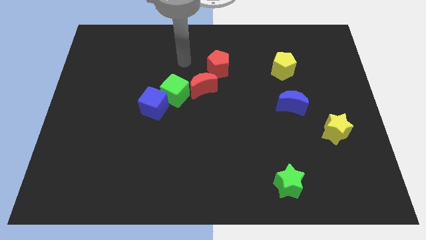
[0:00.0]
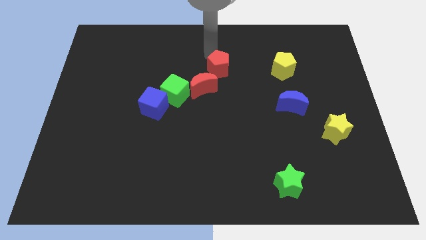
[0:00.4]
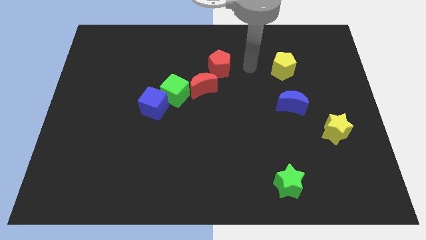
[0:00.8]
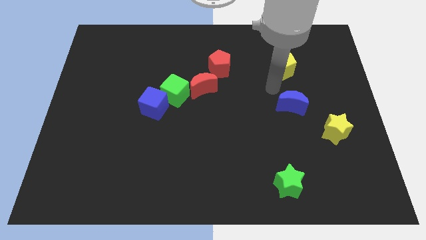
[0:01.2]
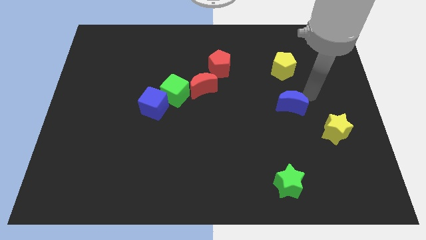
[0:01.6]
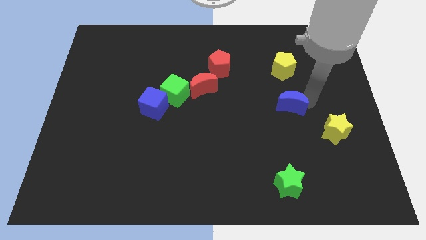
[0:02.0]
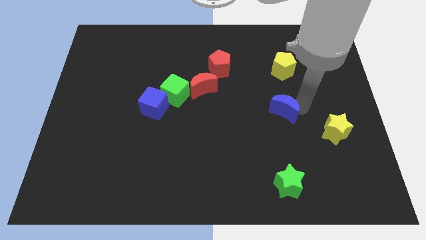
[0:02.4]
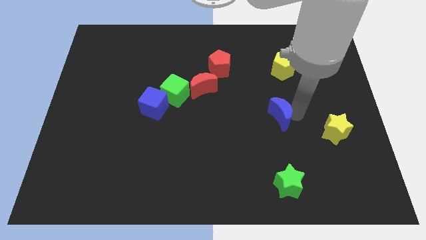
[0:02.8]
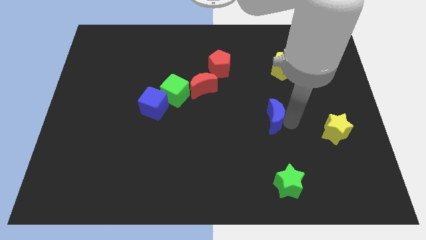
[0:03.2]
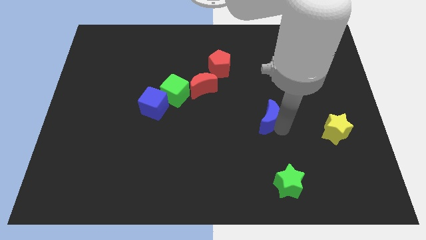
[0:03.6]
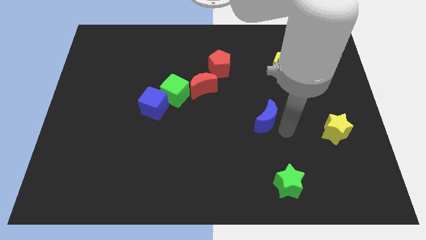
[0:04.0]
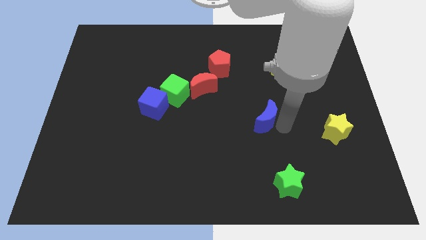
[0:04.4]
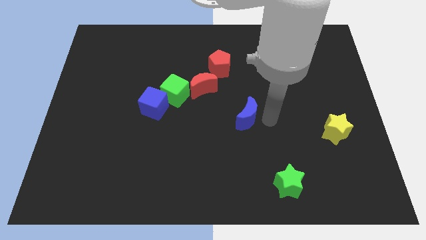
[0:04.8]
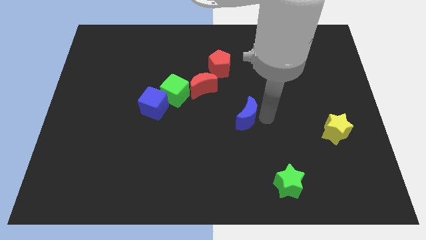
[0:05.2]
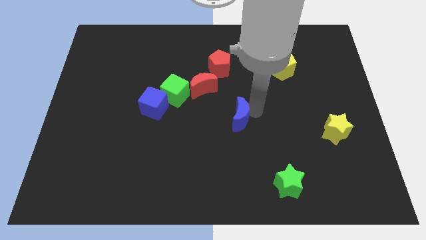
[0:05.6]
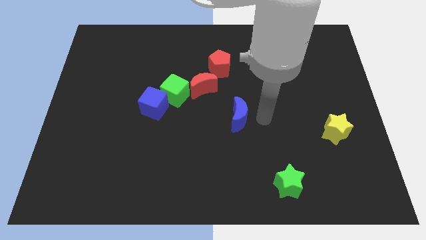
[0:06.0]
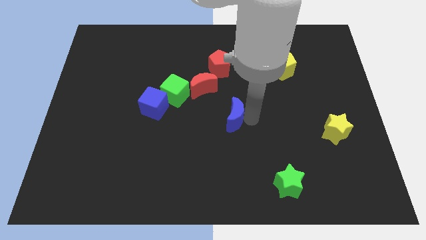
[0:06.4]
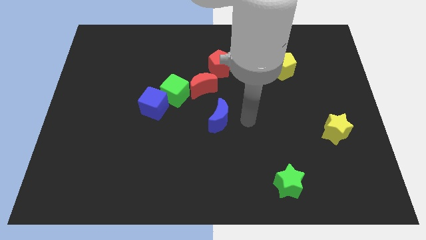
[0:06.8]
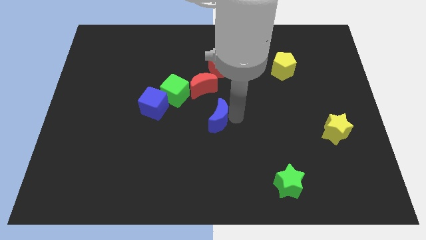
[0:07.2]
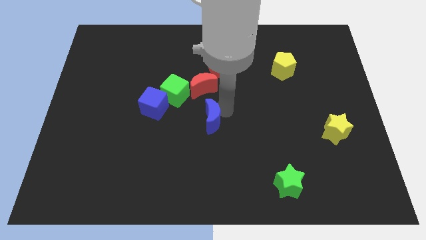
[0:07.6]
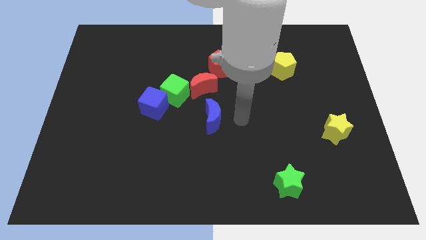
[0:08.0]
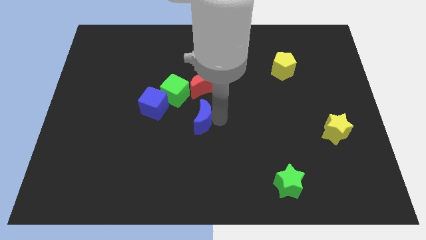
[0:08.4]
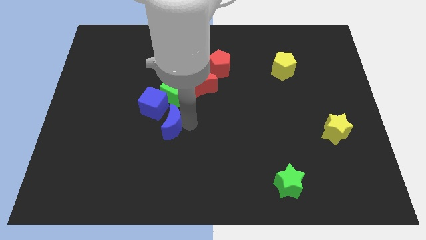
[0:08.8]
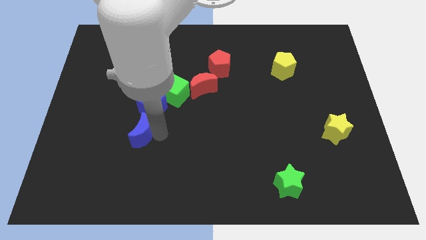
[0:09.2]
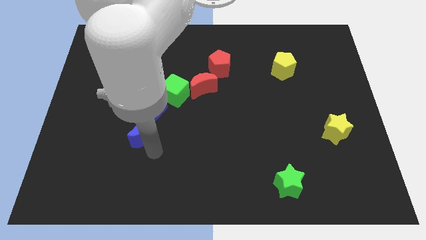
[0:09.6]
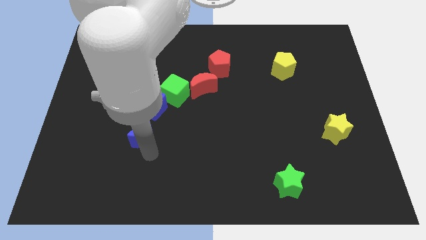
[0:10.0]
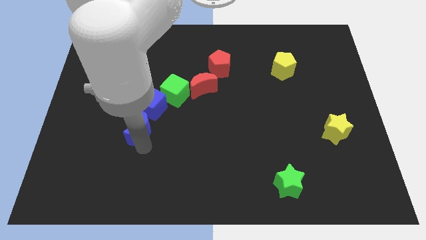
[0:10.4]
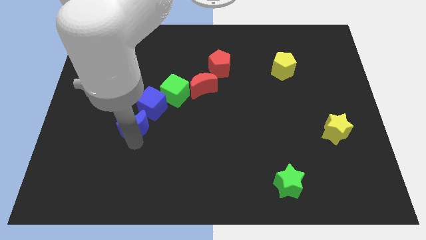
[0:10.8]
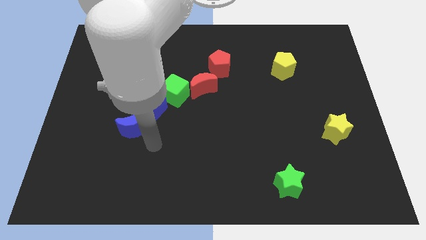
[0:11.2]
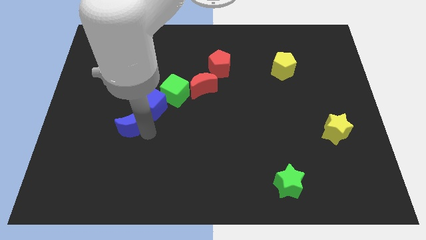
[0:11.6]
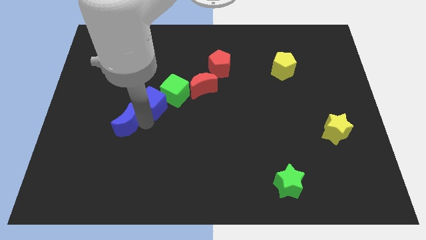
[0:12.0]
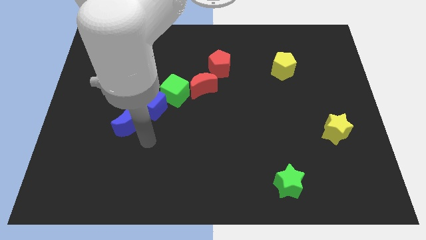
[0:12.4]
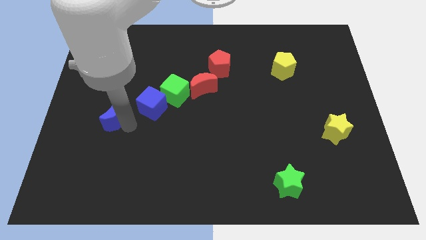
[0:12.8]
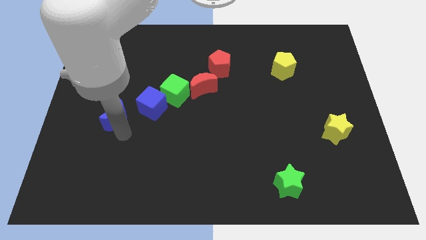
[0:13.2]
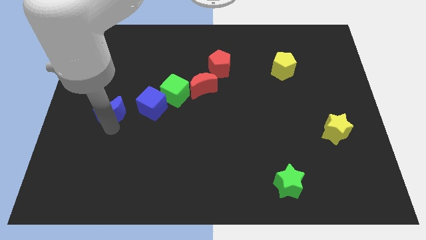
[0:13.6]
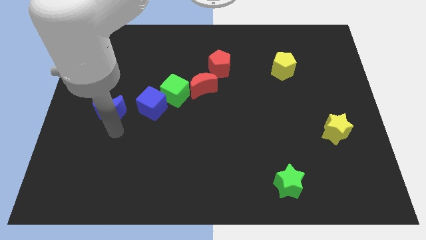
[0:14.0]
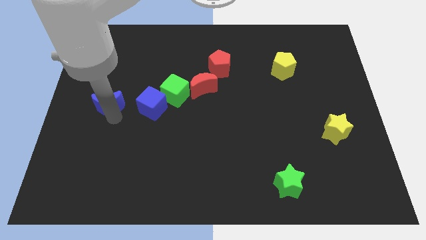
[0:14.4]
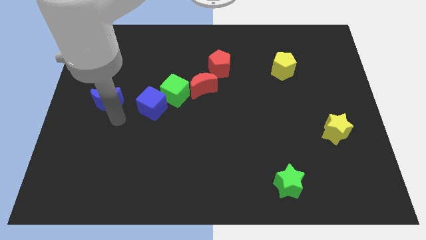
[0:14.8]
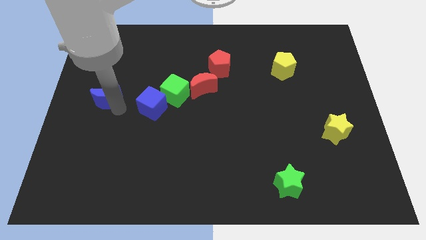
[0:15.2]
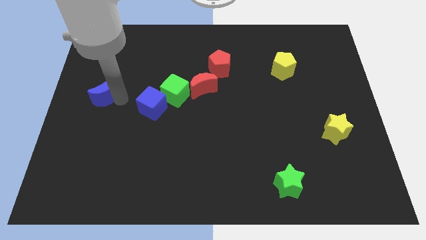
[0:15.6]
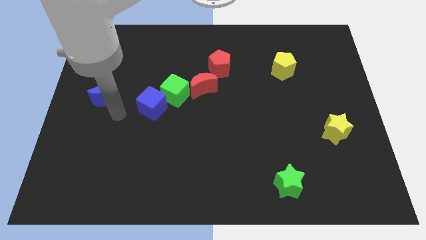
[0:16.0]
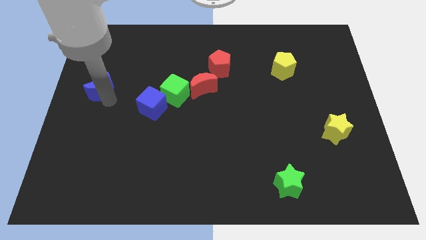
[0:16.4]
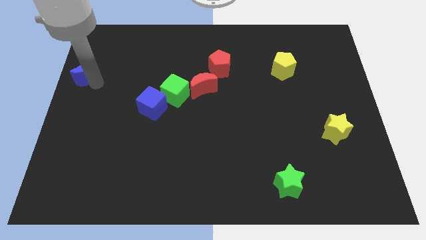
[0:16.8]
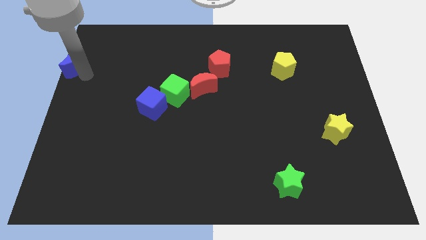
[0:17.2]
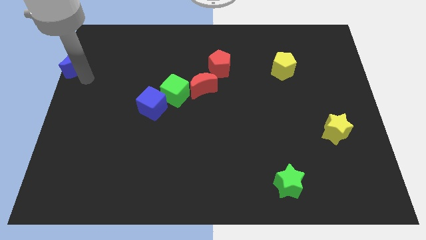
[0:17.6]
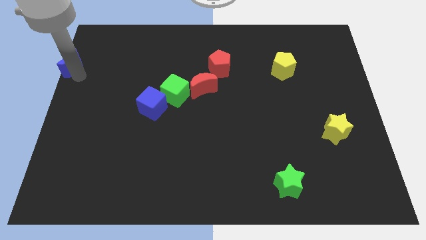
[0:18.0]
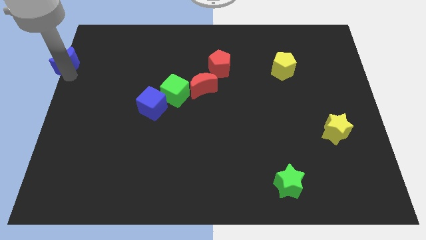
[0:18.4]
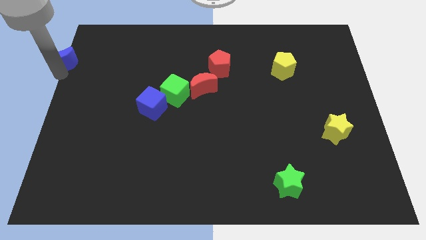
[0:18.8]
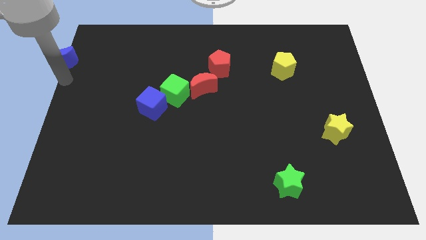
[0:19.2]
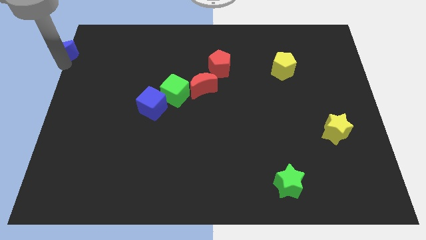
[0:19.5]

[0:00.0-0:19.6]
put the blue moon to the top left corner

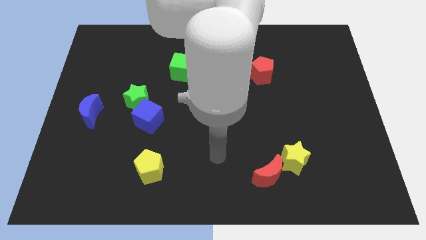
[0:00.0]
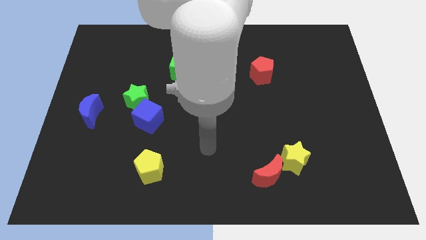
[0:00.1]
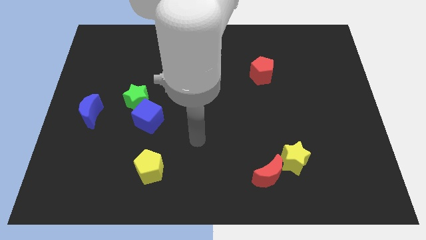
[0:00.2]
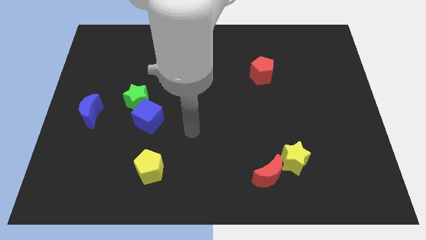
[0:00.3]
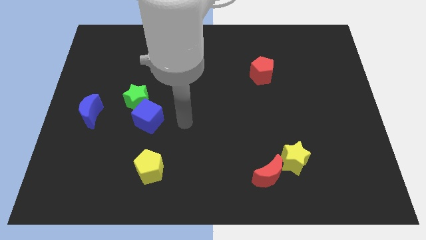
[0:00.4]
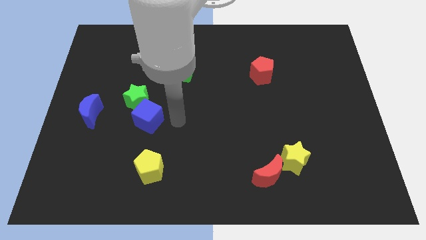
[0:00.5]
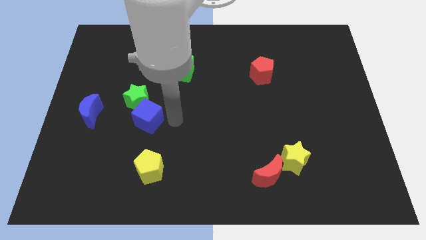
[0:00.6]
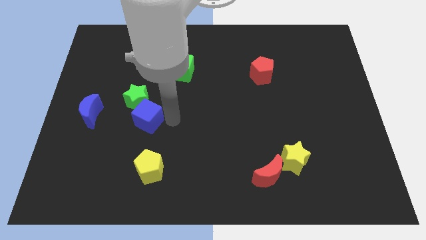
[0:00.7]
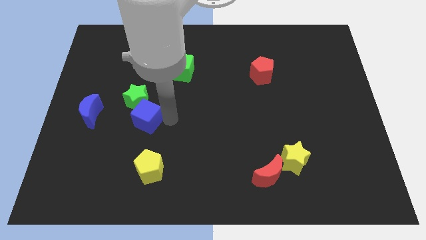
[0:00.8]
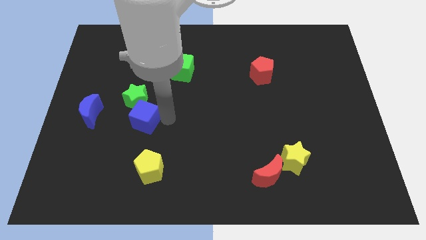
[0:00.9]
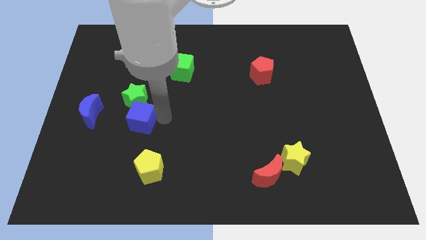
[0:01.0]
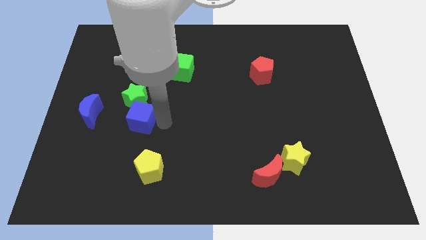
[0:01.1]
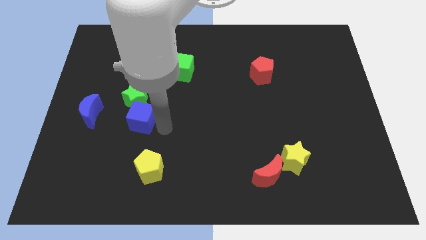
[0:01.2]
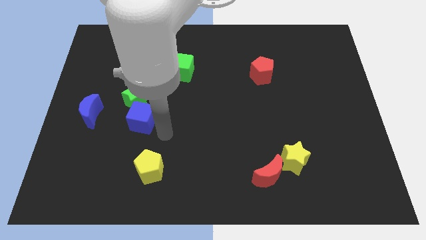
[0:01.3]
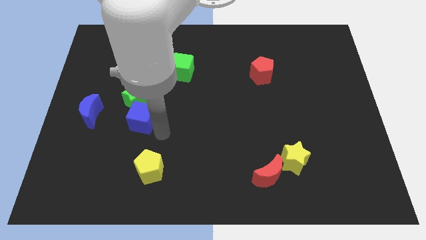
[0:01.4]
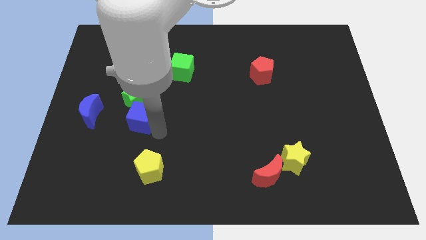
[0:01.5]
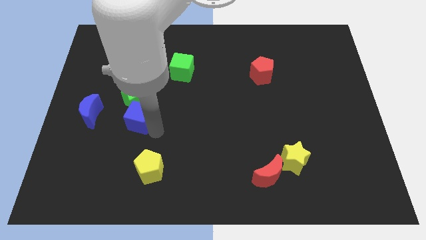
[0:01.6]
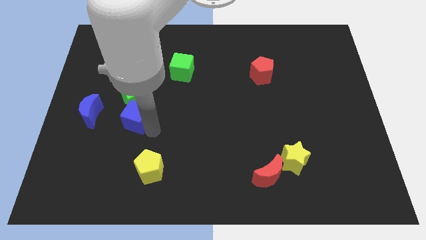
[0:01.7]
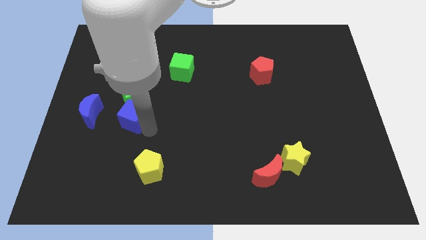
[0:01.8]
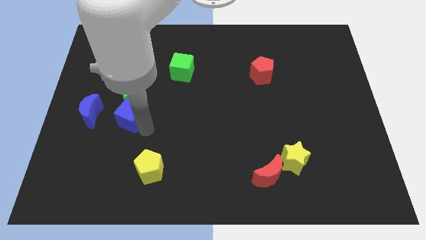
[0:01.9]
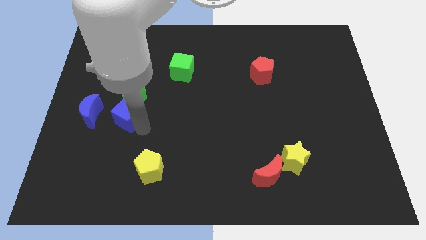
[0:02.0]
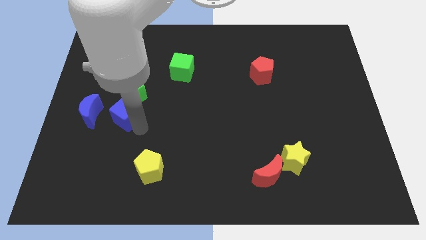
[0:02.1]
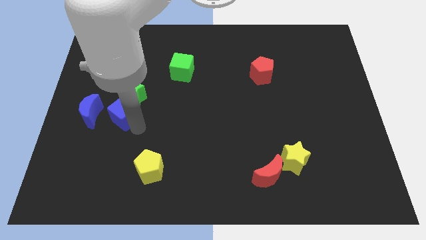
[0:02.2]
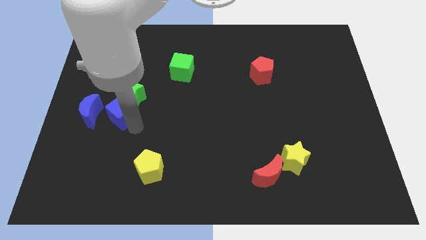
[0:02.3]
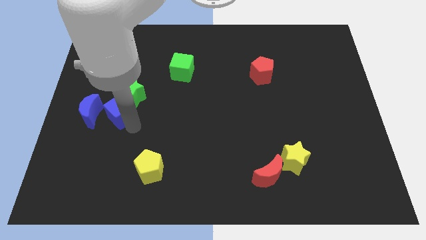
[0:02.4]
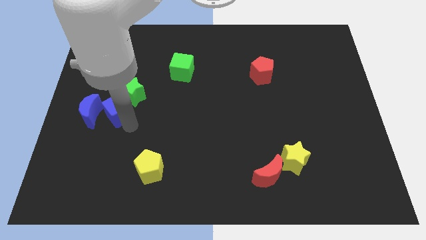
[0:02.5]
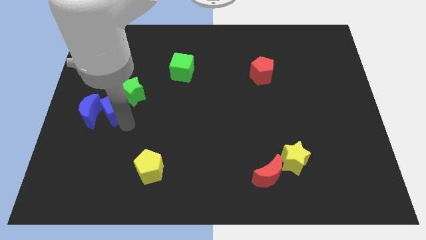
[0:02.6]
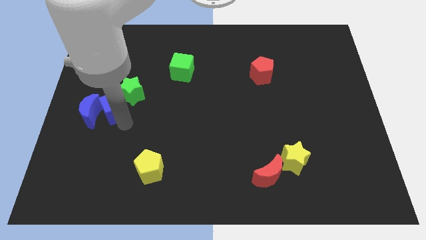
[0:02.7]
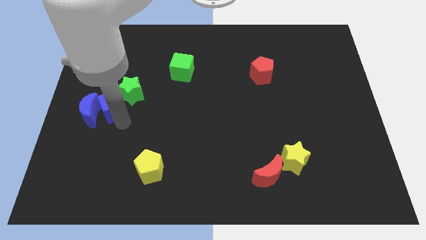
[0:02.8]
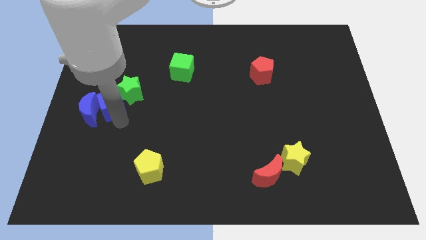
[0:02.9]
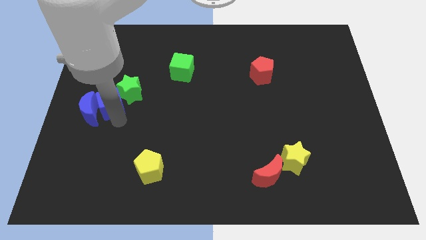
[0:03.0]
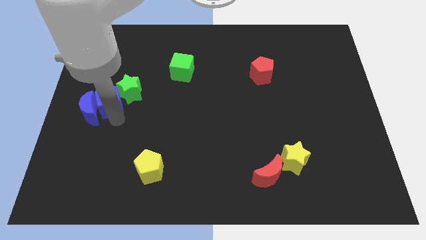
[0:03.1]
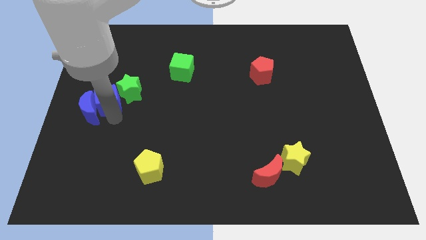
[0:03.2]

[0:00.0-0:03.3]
move the blue cube to the center left
